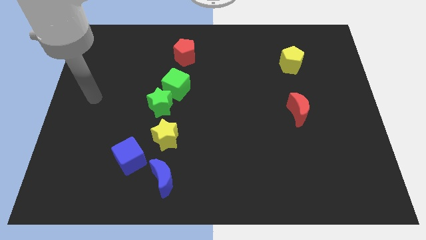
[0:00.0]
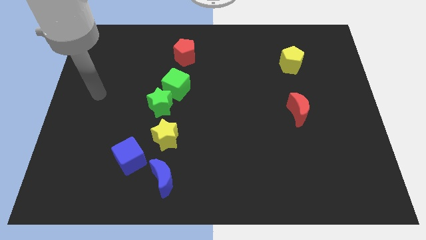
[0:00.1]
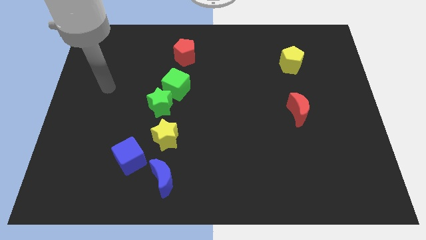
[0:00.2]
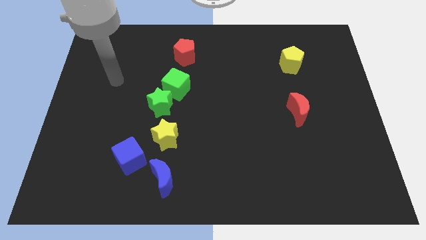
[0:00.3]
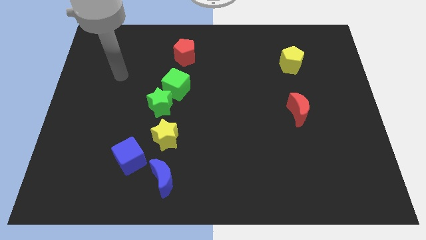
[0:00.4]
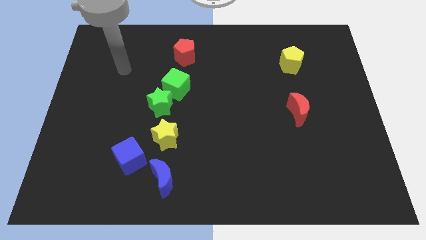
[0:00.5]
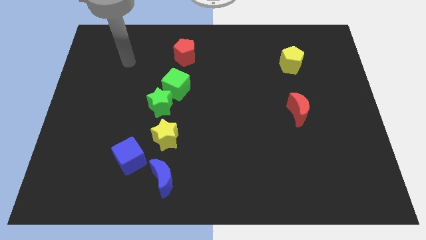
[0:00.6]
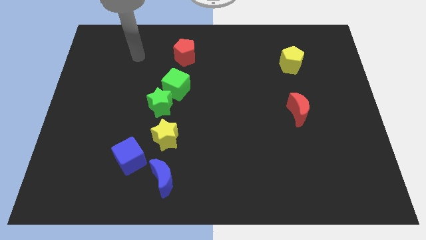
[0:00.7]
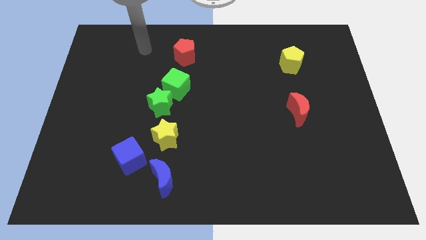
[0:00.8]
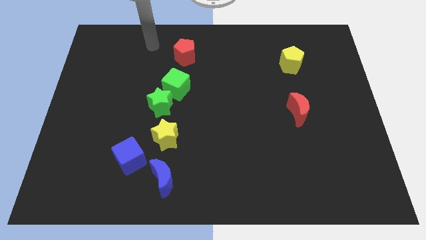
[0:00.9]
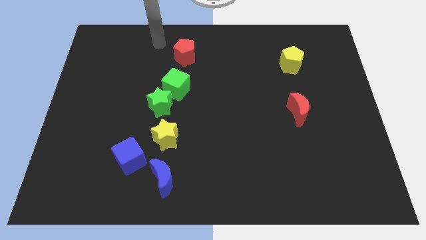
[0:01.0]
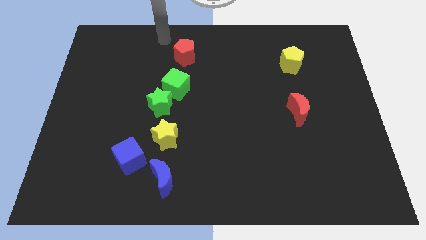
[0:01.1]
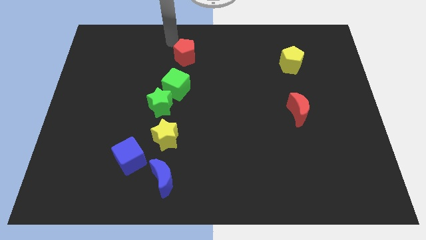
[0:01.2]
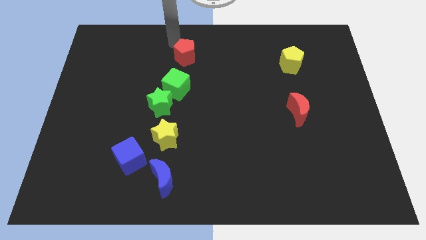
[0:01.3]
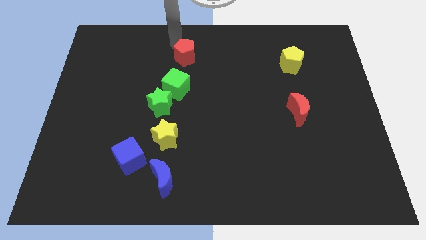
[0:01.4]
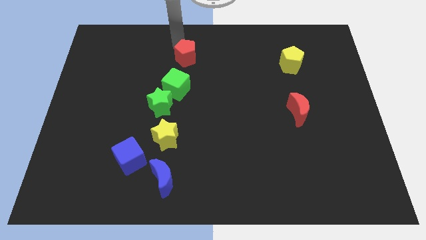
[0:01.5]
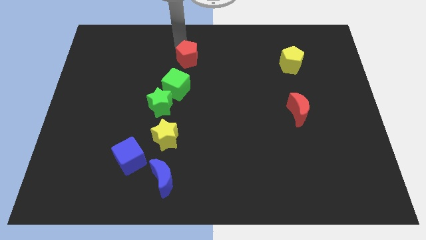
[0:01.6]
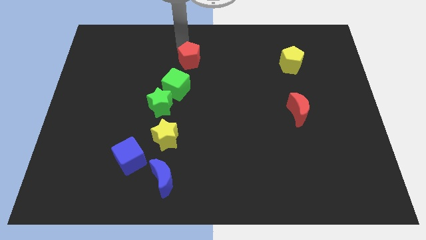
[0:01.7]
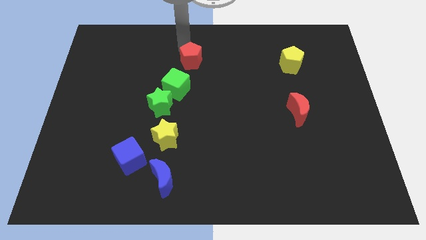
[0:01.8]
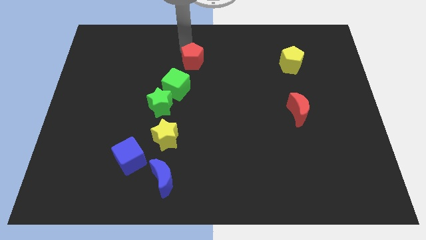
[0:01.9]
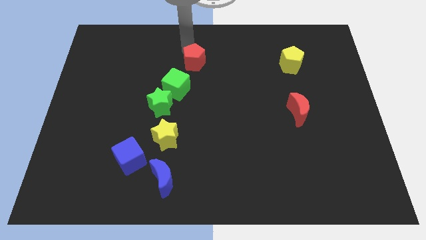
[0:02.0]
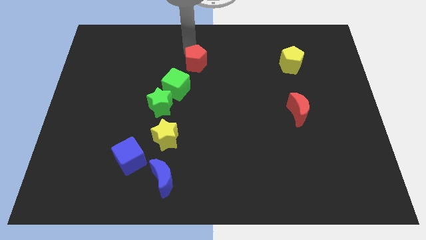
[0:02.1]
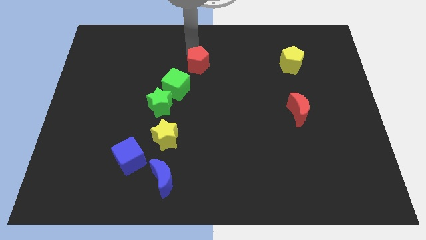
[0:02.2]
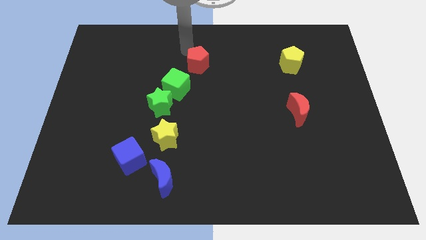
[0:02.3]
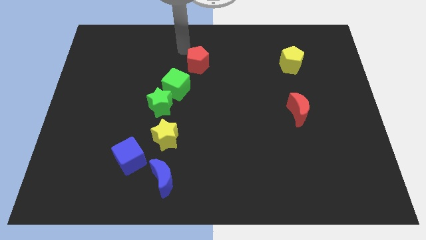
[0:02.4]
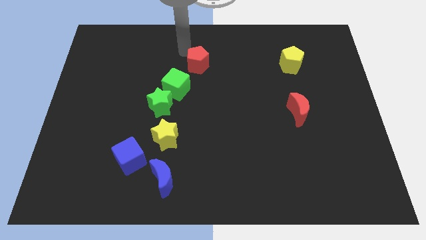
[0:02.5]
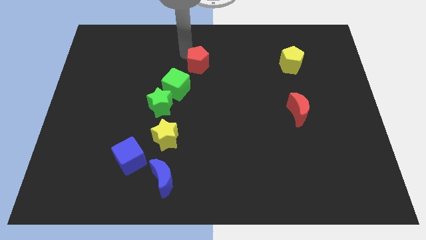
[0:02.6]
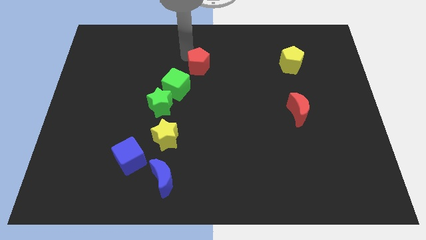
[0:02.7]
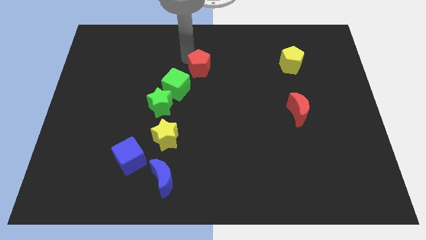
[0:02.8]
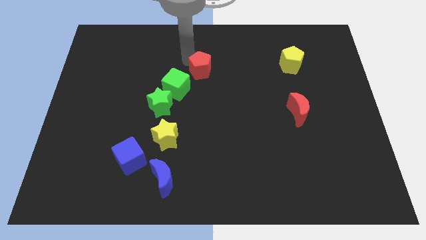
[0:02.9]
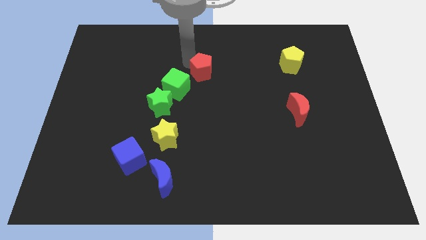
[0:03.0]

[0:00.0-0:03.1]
push the red pentagon a little downwards and then right

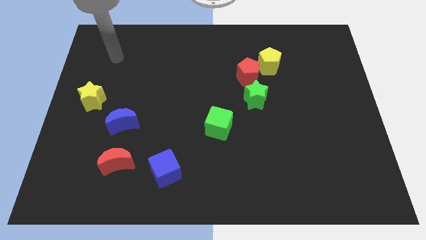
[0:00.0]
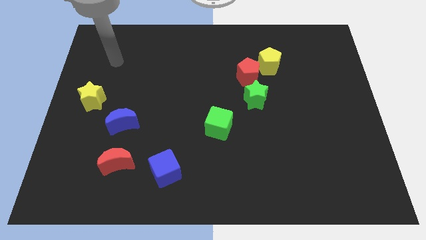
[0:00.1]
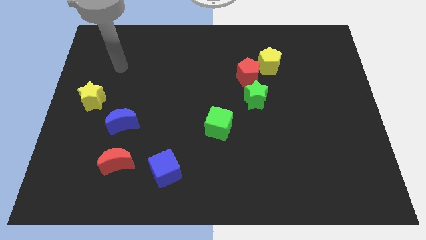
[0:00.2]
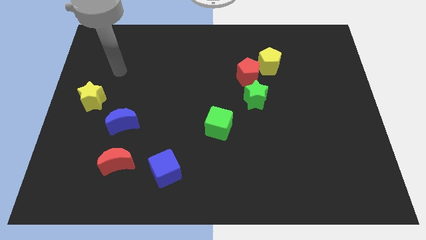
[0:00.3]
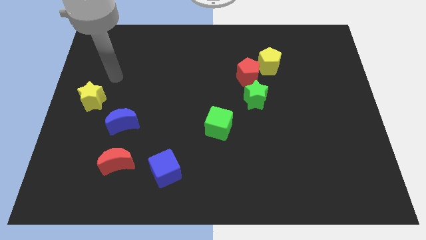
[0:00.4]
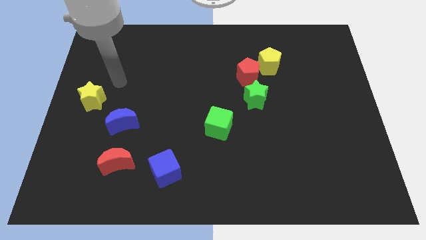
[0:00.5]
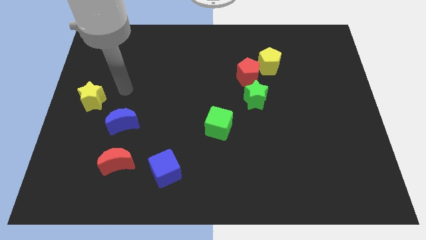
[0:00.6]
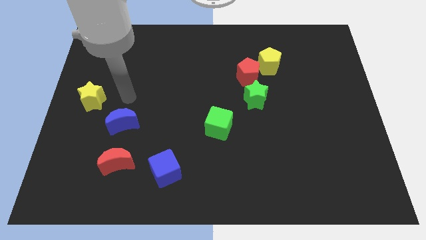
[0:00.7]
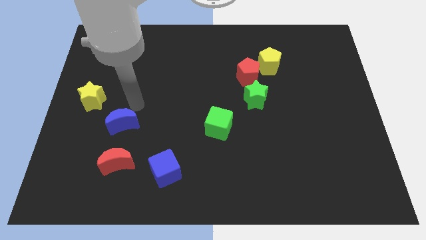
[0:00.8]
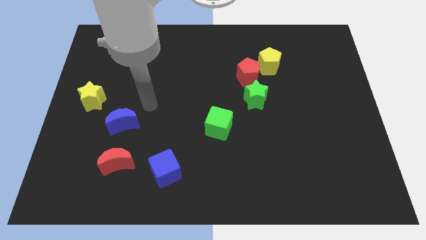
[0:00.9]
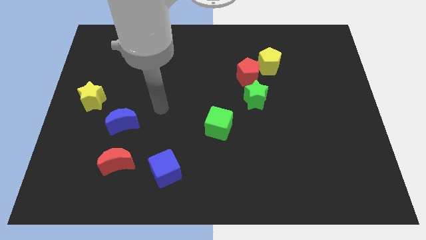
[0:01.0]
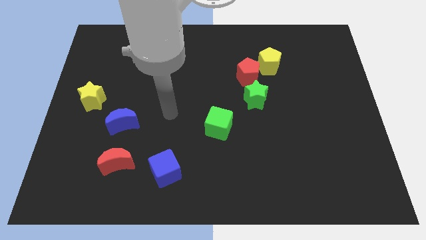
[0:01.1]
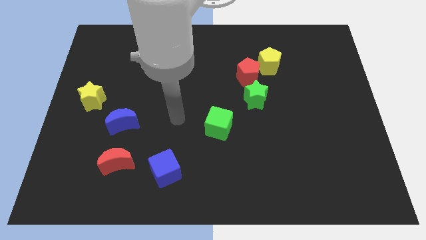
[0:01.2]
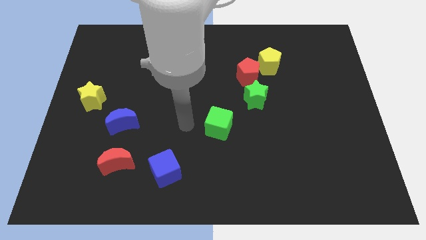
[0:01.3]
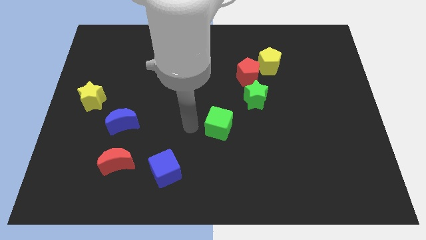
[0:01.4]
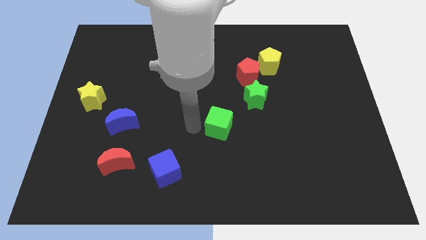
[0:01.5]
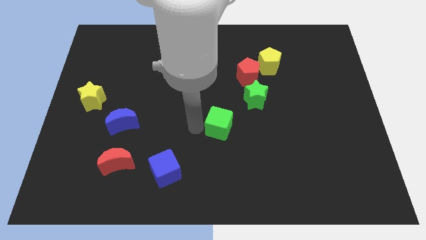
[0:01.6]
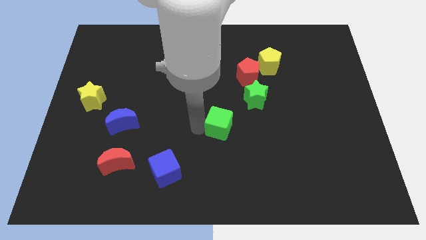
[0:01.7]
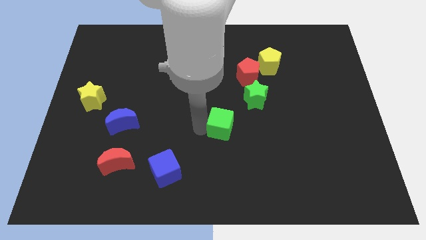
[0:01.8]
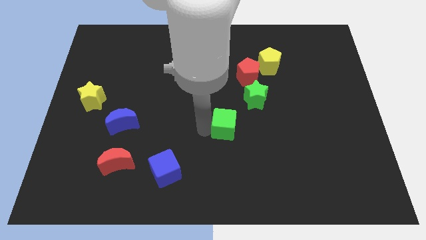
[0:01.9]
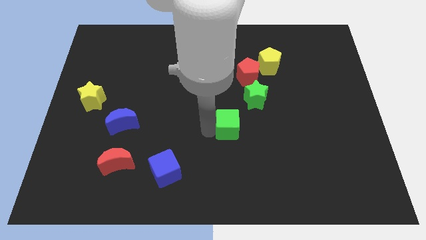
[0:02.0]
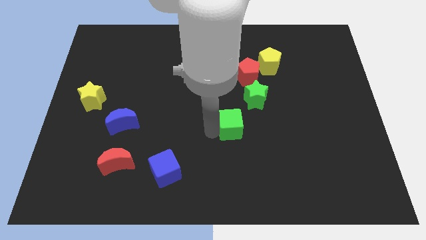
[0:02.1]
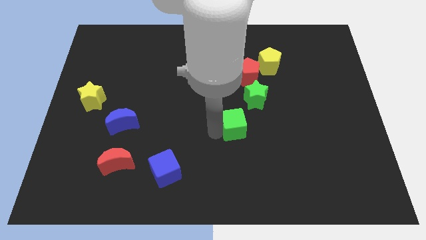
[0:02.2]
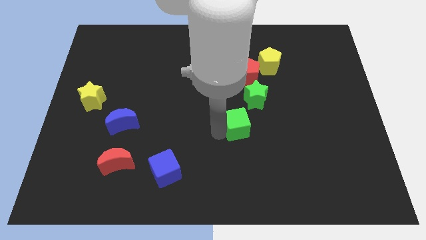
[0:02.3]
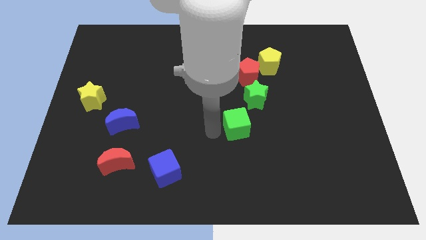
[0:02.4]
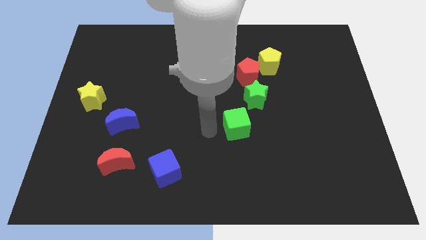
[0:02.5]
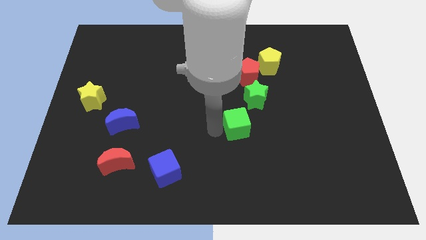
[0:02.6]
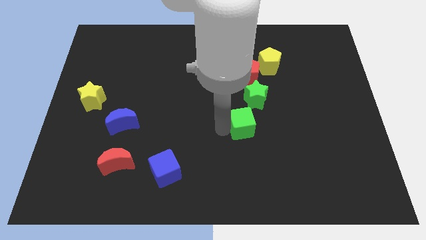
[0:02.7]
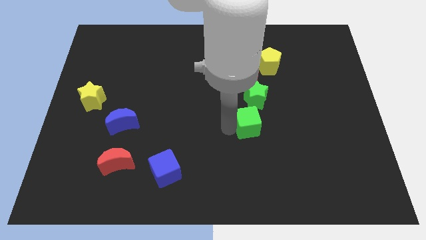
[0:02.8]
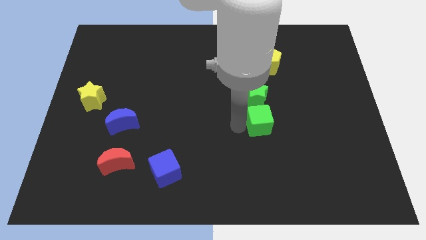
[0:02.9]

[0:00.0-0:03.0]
push the green cube right somewhat

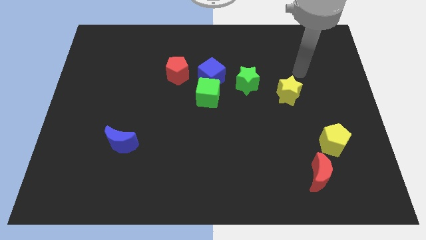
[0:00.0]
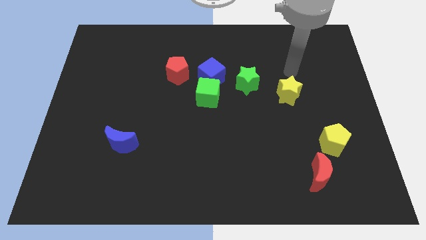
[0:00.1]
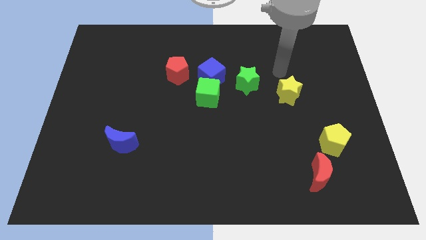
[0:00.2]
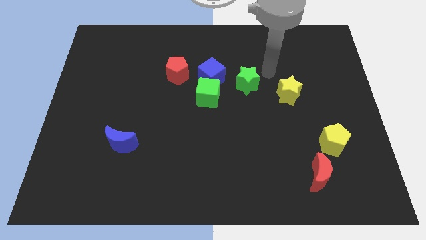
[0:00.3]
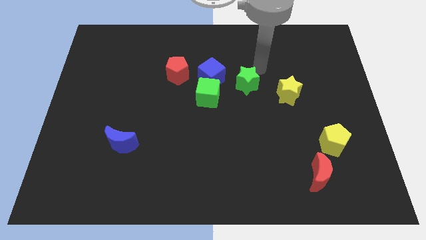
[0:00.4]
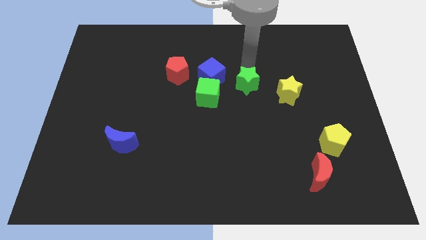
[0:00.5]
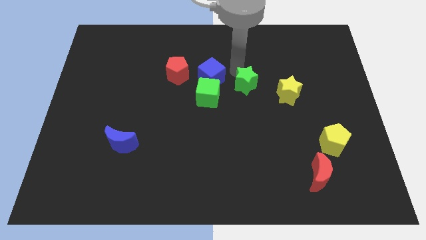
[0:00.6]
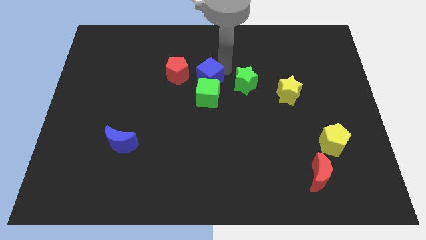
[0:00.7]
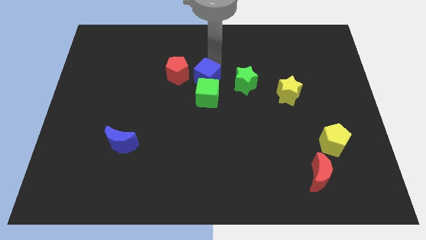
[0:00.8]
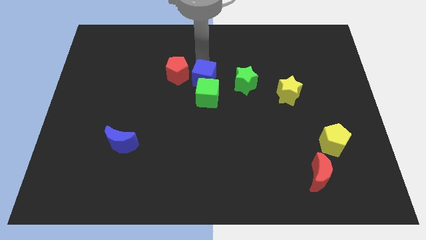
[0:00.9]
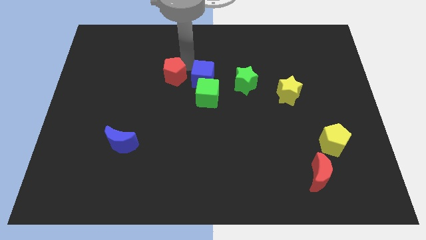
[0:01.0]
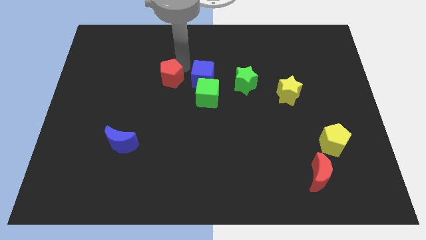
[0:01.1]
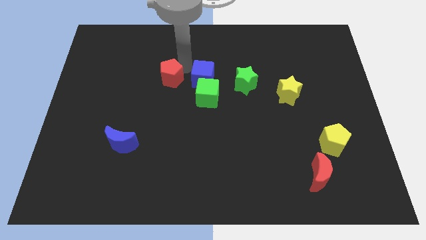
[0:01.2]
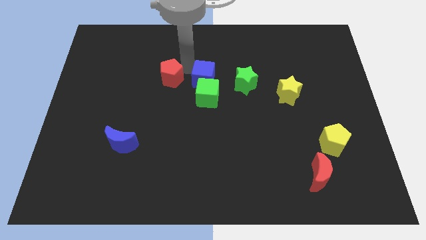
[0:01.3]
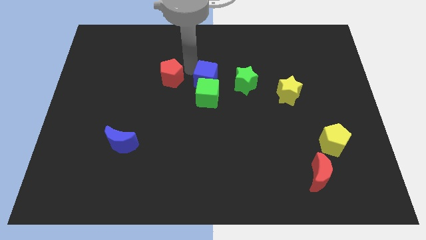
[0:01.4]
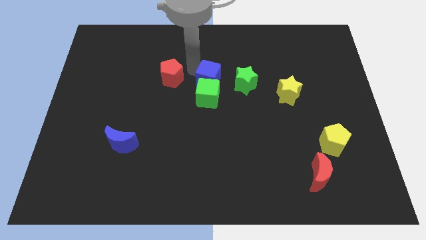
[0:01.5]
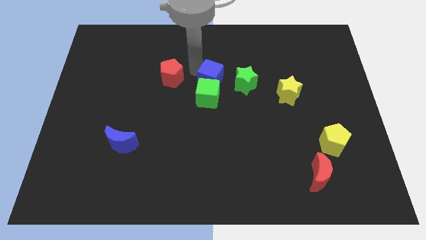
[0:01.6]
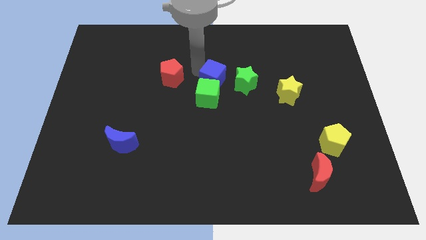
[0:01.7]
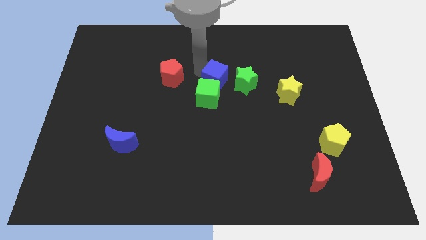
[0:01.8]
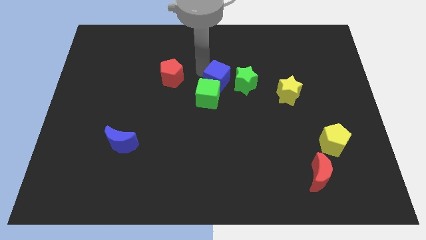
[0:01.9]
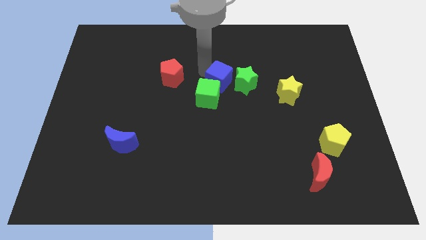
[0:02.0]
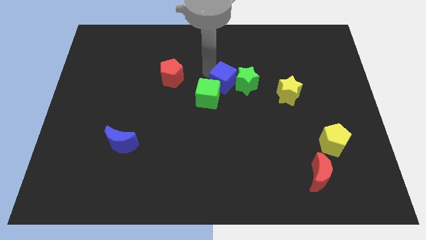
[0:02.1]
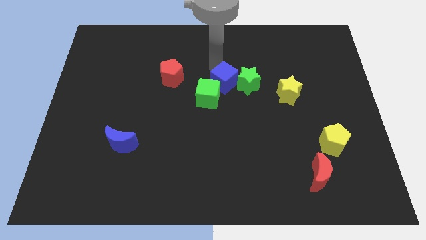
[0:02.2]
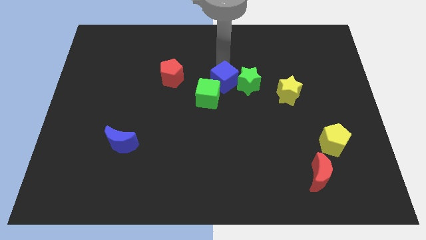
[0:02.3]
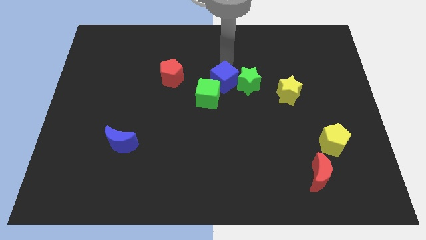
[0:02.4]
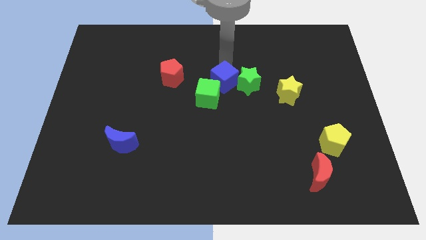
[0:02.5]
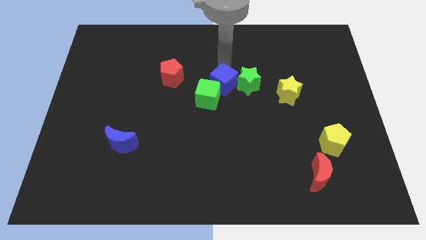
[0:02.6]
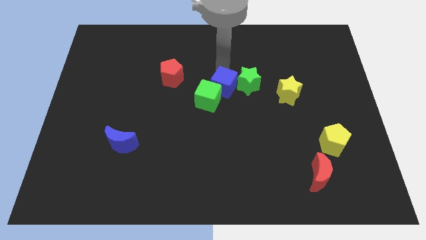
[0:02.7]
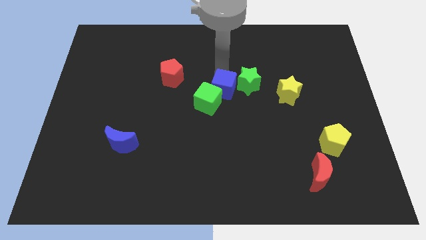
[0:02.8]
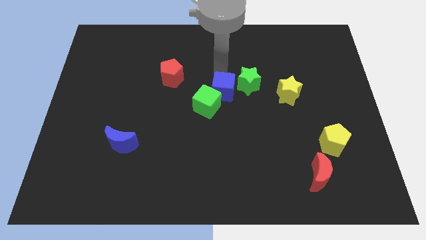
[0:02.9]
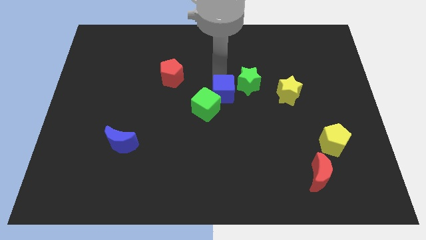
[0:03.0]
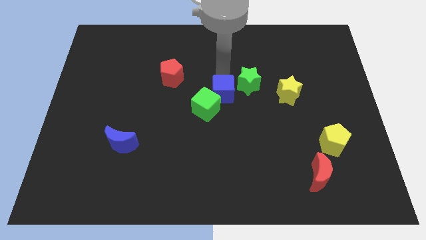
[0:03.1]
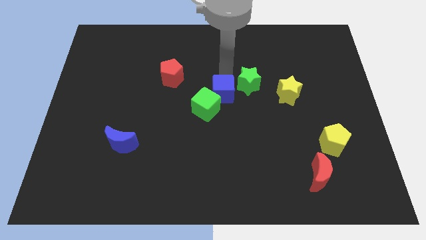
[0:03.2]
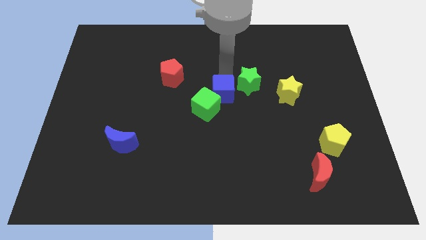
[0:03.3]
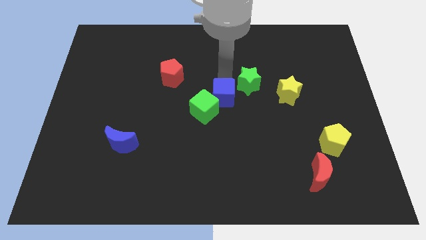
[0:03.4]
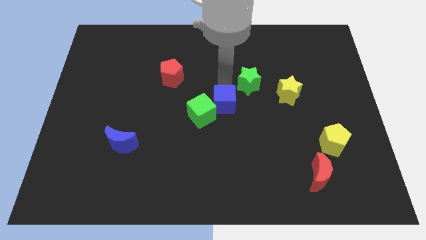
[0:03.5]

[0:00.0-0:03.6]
push the blue cube downwards a little
